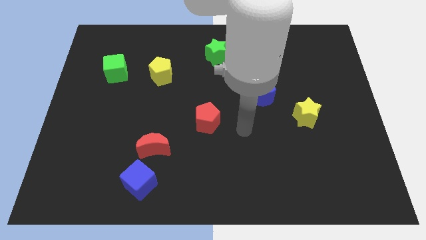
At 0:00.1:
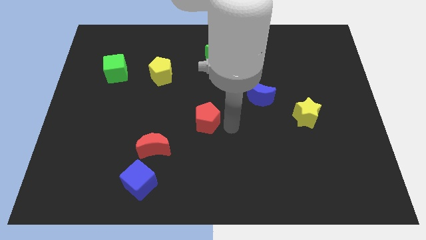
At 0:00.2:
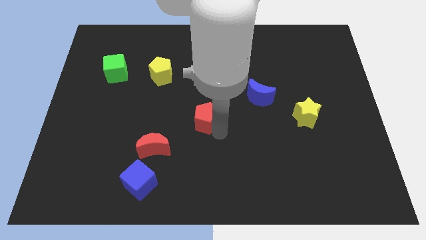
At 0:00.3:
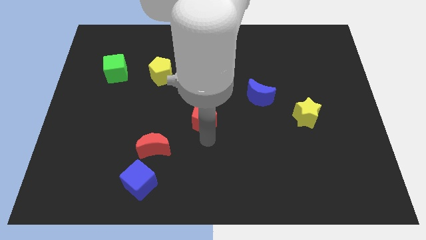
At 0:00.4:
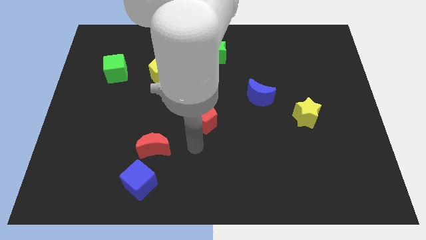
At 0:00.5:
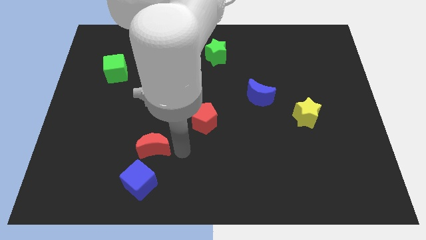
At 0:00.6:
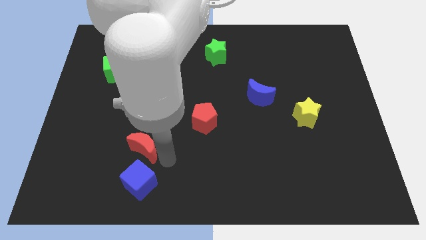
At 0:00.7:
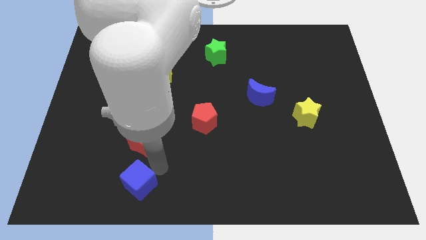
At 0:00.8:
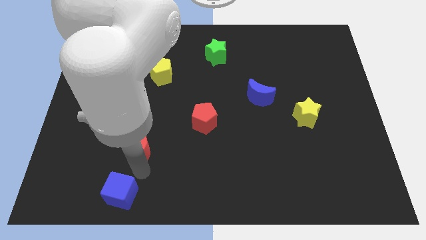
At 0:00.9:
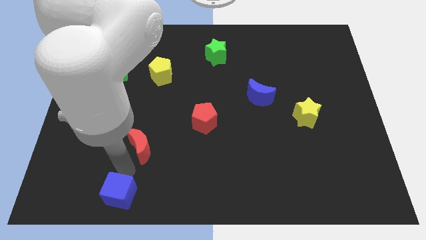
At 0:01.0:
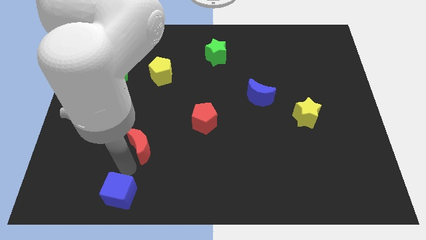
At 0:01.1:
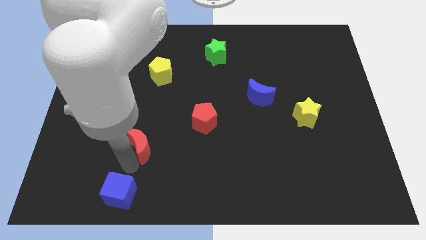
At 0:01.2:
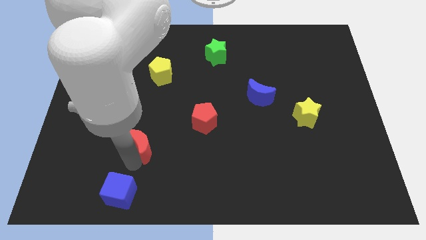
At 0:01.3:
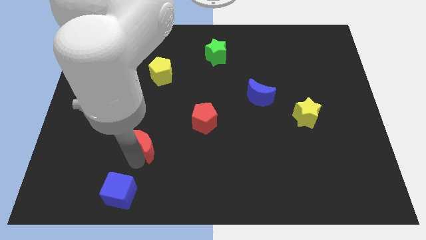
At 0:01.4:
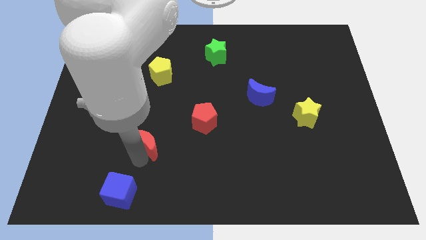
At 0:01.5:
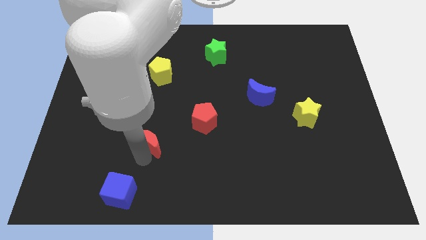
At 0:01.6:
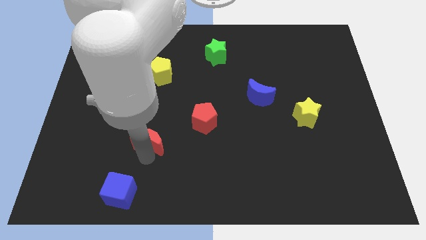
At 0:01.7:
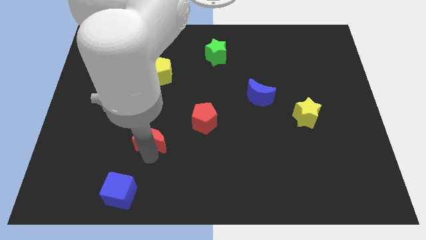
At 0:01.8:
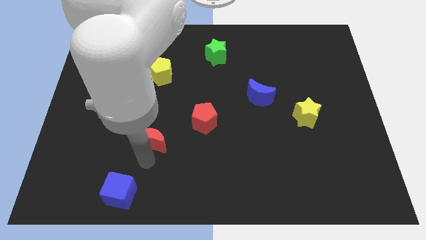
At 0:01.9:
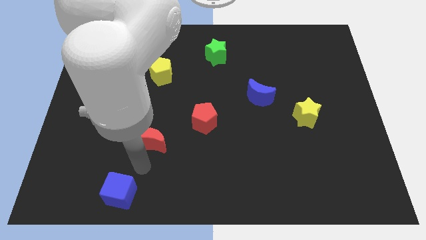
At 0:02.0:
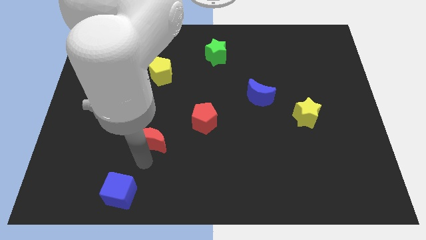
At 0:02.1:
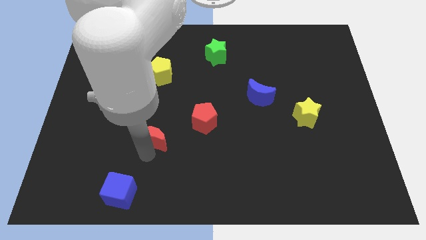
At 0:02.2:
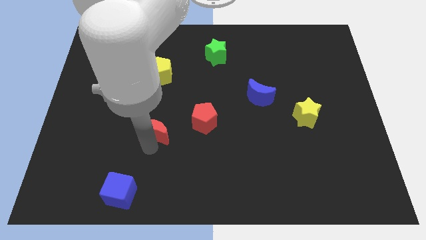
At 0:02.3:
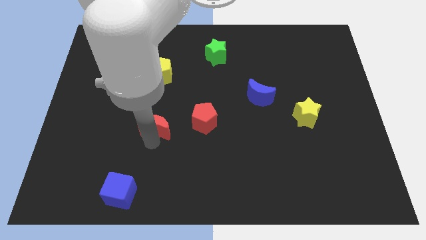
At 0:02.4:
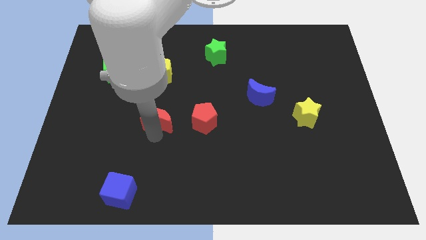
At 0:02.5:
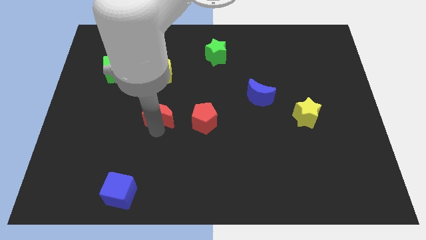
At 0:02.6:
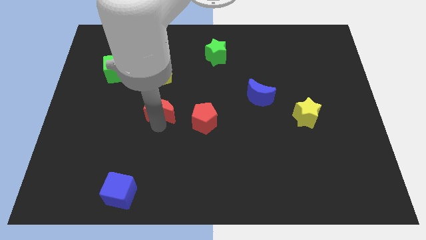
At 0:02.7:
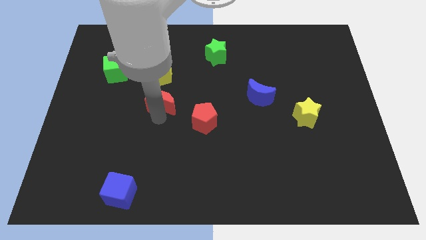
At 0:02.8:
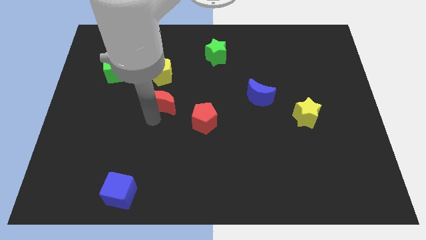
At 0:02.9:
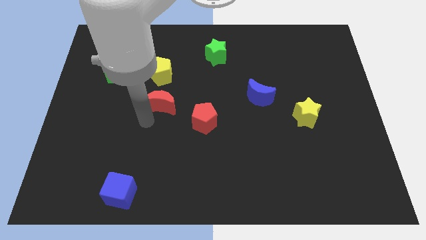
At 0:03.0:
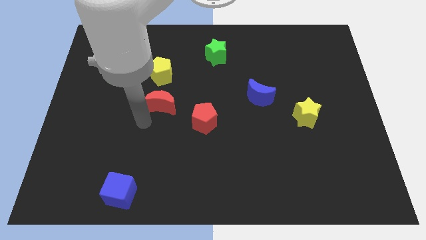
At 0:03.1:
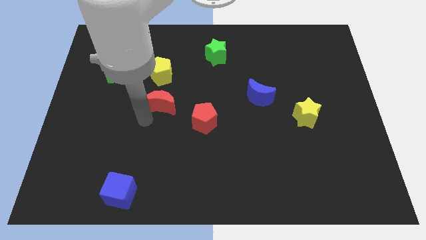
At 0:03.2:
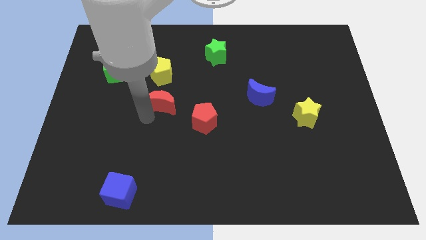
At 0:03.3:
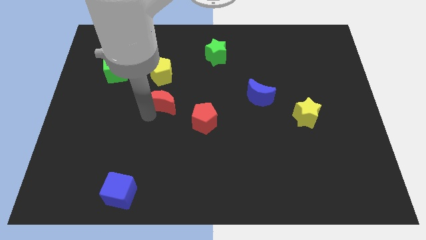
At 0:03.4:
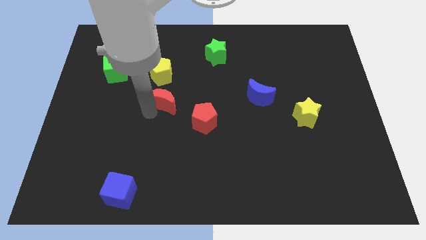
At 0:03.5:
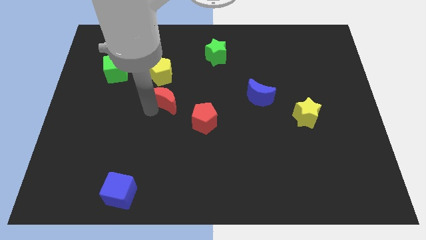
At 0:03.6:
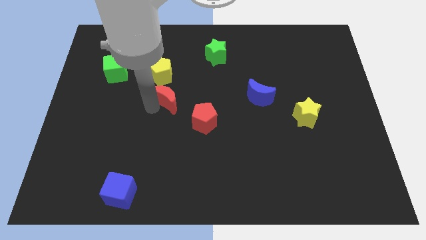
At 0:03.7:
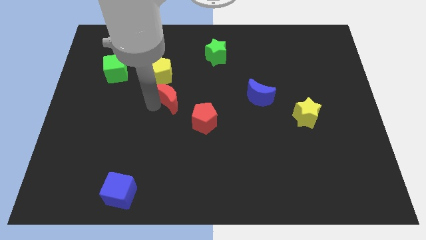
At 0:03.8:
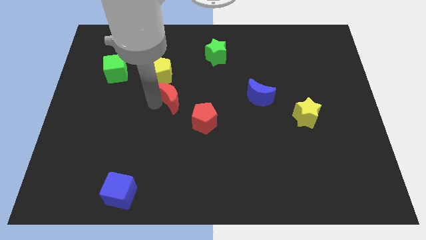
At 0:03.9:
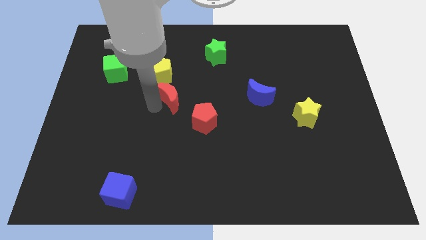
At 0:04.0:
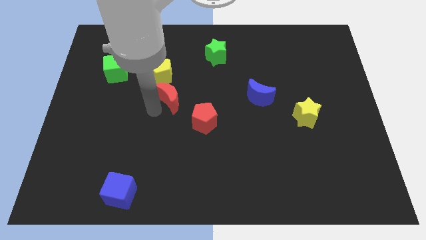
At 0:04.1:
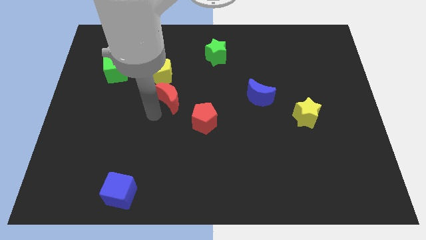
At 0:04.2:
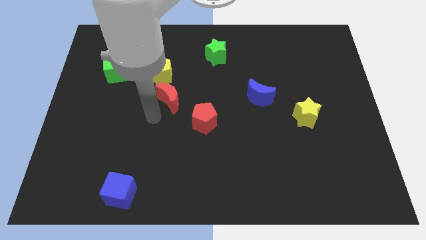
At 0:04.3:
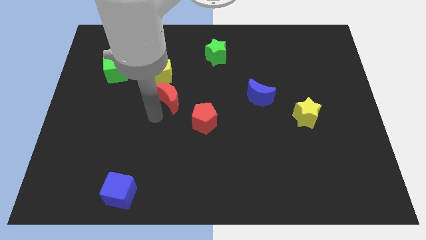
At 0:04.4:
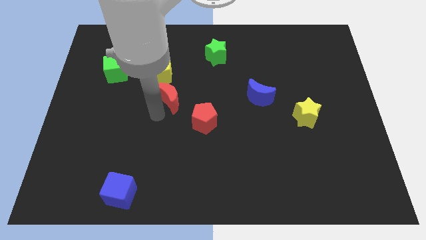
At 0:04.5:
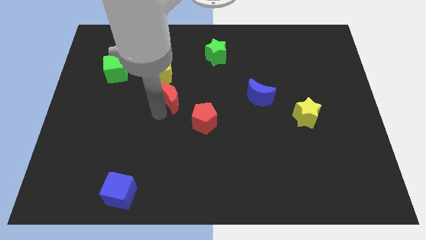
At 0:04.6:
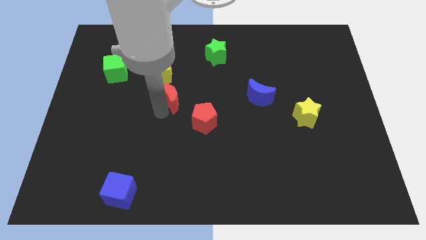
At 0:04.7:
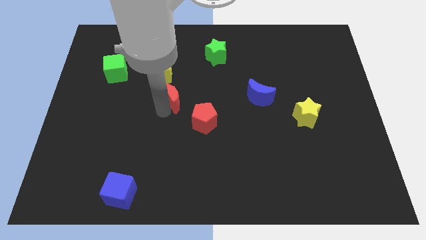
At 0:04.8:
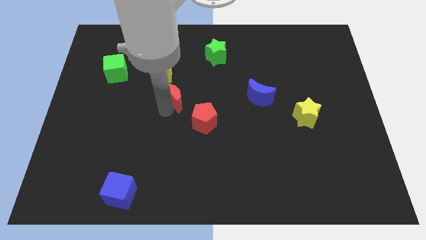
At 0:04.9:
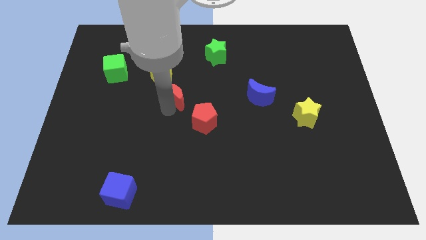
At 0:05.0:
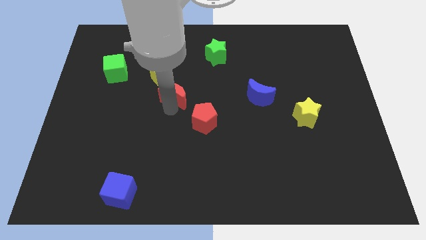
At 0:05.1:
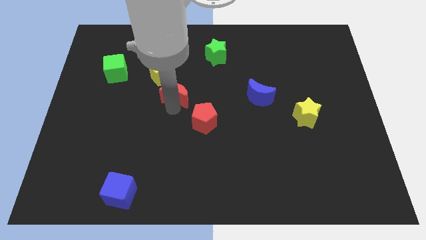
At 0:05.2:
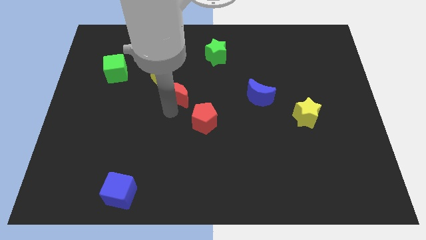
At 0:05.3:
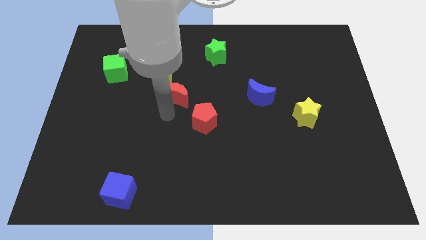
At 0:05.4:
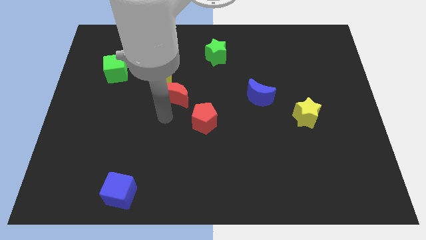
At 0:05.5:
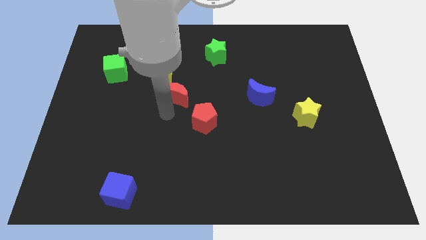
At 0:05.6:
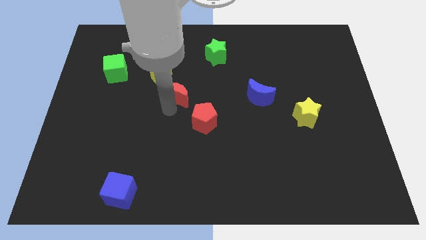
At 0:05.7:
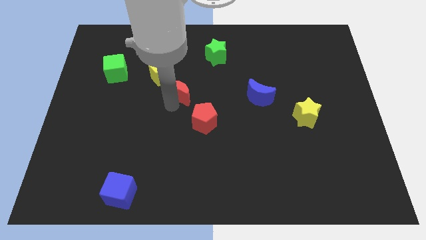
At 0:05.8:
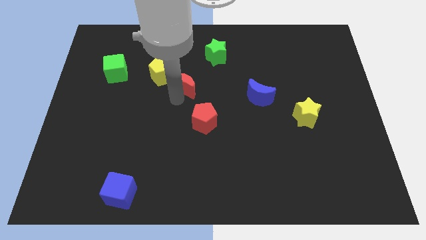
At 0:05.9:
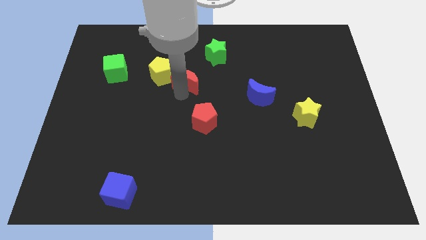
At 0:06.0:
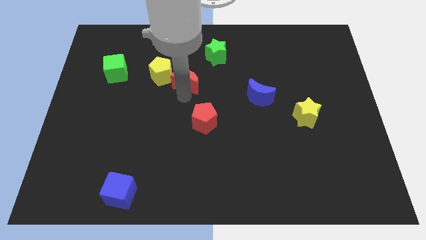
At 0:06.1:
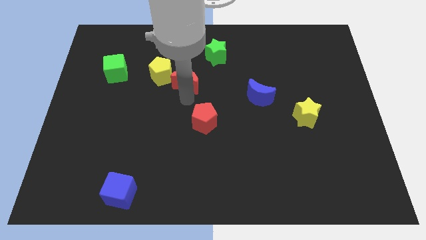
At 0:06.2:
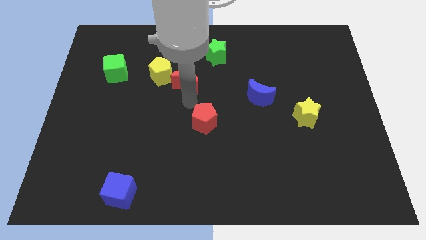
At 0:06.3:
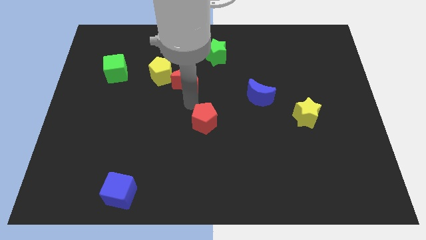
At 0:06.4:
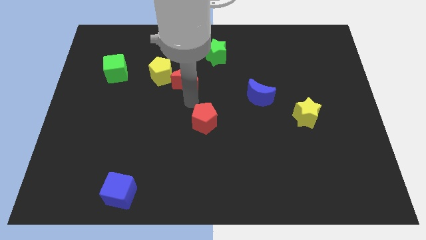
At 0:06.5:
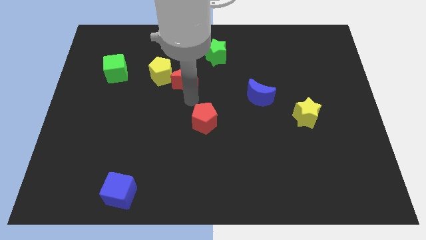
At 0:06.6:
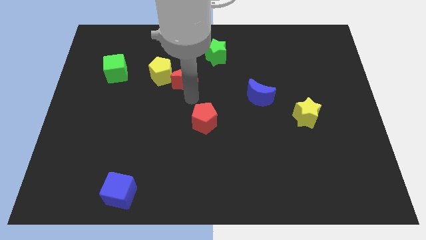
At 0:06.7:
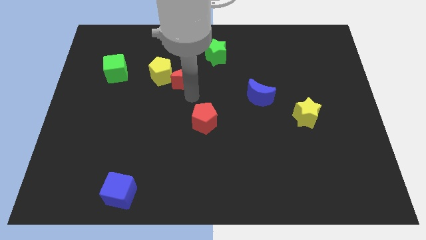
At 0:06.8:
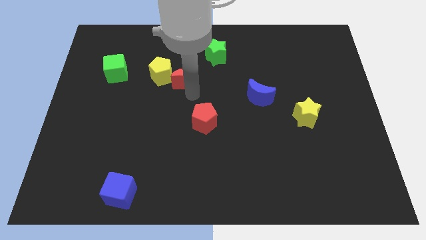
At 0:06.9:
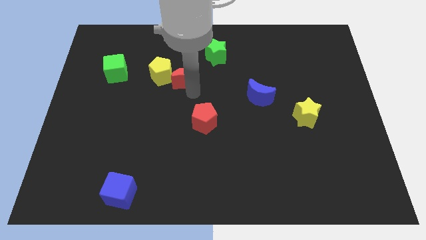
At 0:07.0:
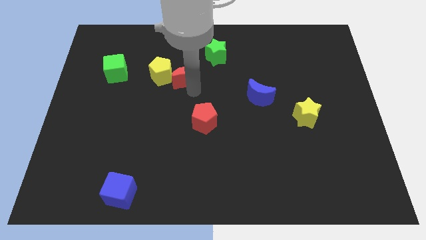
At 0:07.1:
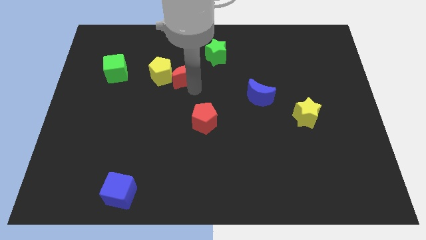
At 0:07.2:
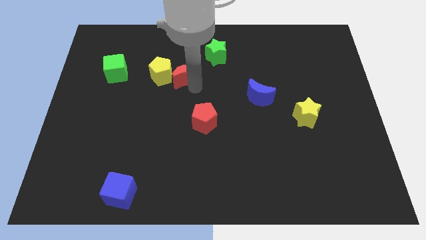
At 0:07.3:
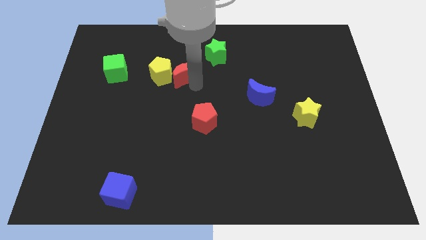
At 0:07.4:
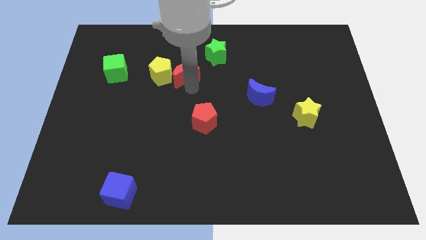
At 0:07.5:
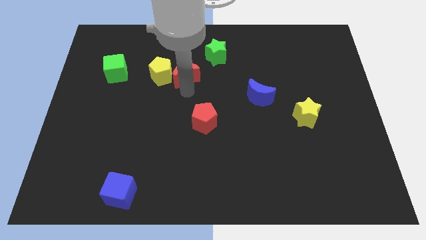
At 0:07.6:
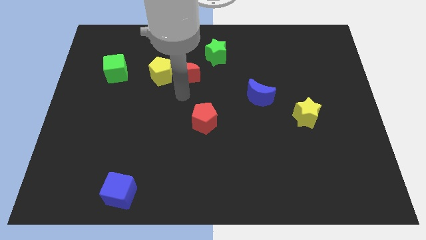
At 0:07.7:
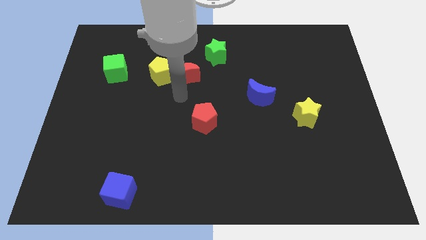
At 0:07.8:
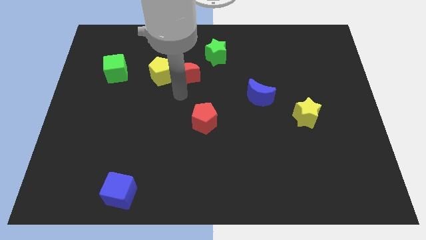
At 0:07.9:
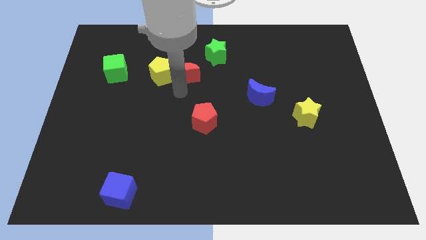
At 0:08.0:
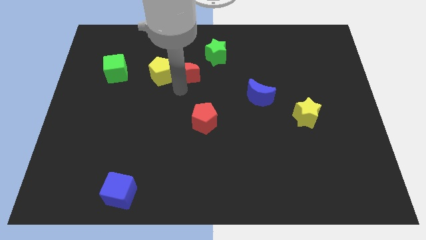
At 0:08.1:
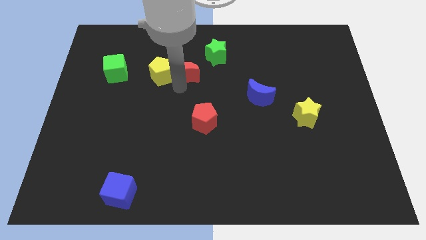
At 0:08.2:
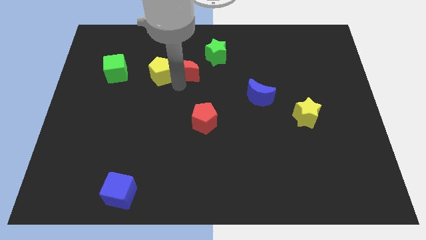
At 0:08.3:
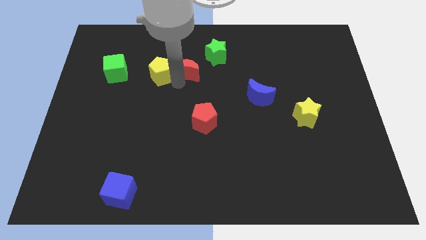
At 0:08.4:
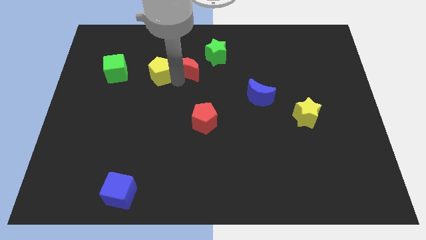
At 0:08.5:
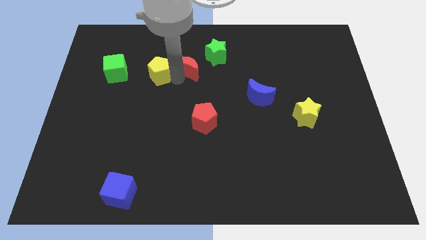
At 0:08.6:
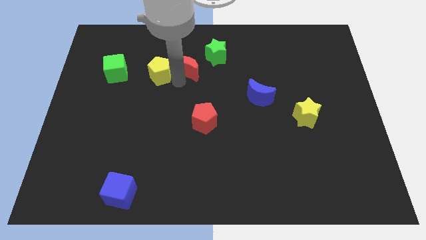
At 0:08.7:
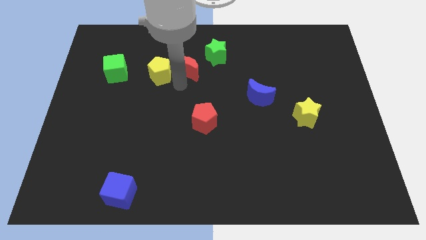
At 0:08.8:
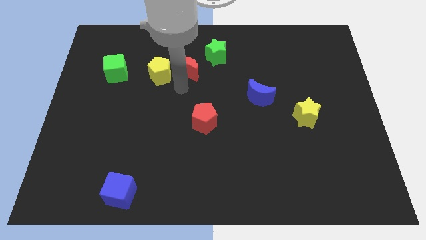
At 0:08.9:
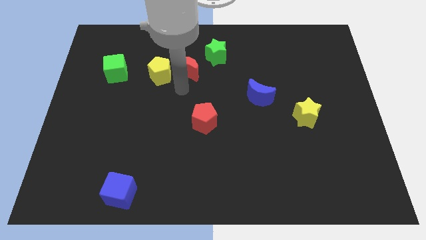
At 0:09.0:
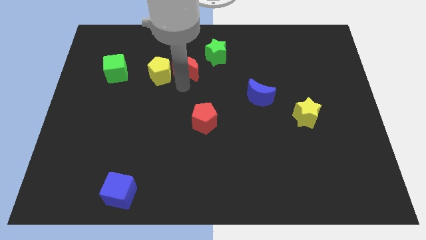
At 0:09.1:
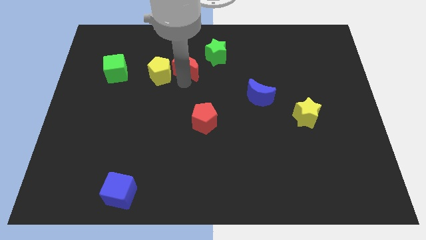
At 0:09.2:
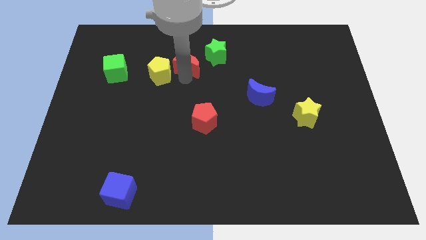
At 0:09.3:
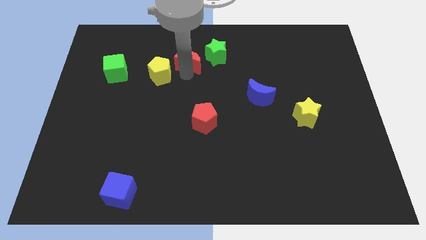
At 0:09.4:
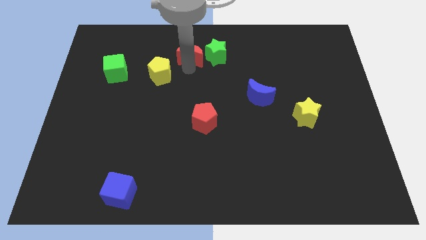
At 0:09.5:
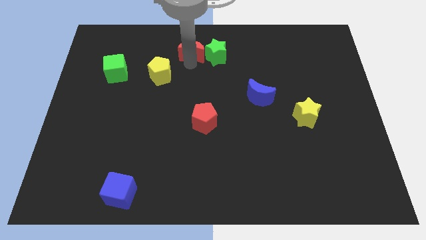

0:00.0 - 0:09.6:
slide the red moon to the top side
